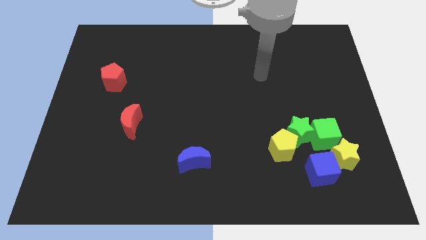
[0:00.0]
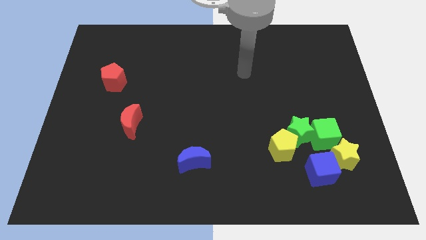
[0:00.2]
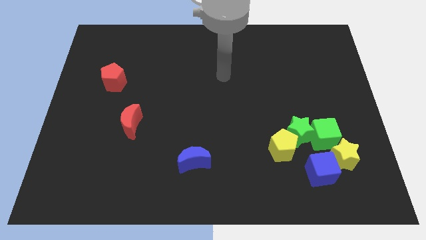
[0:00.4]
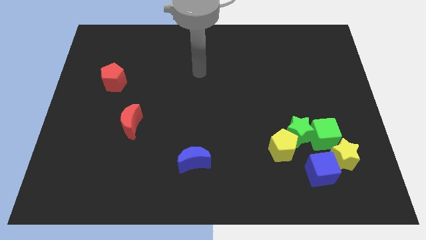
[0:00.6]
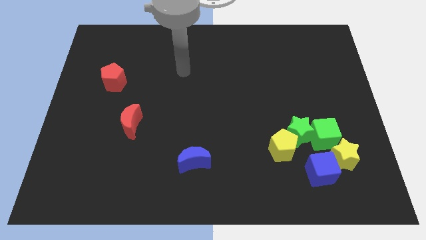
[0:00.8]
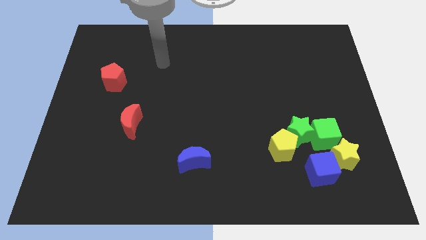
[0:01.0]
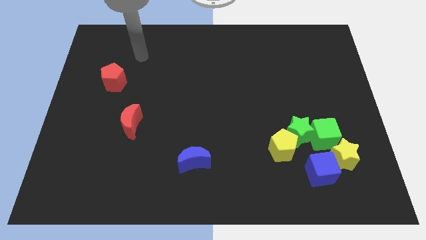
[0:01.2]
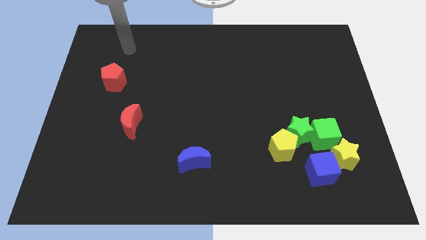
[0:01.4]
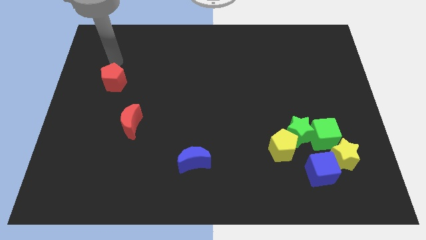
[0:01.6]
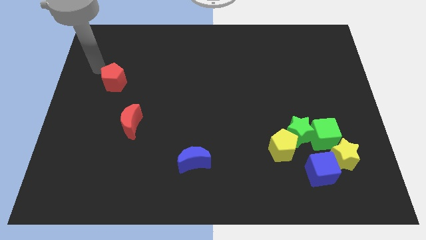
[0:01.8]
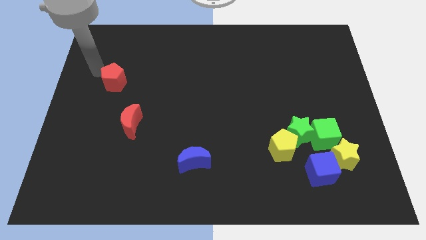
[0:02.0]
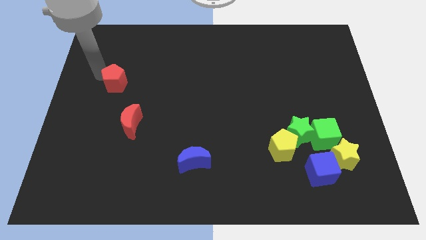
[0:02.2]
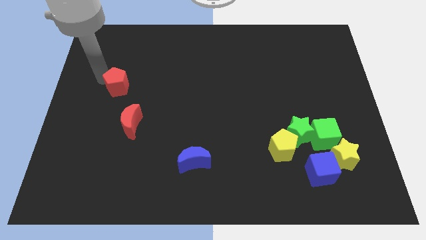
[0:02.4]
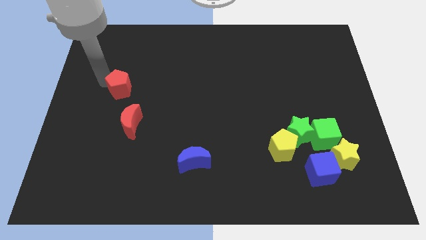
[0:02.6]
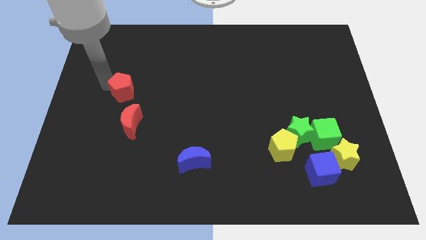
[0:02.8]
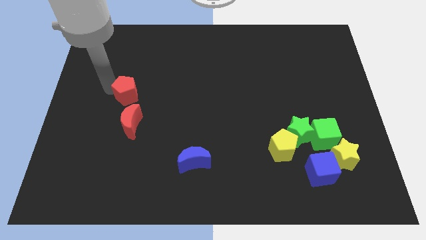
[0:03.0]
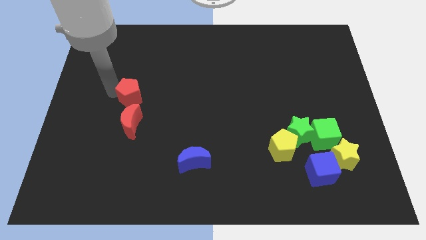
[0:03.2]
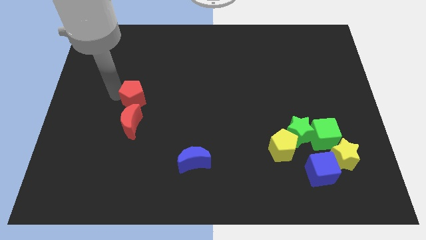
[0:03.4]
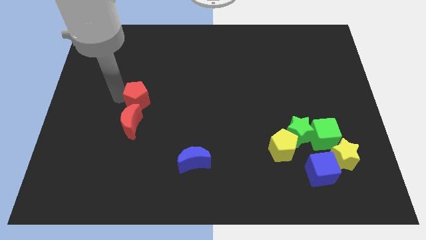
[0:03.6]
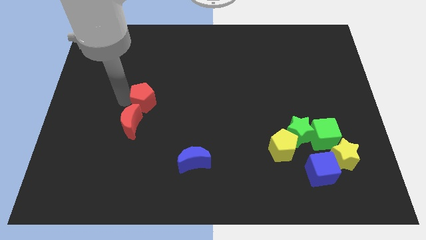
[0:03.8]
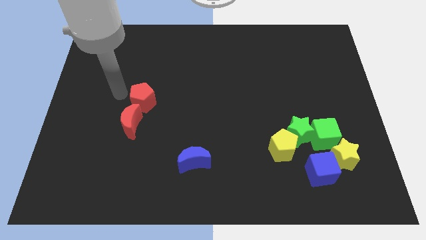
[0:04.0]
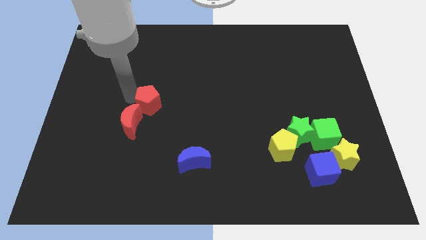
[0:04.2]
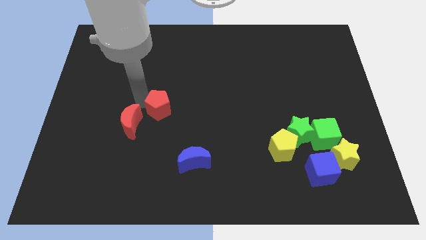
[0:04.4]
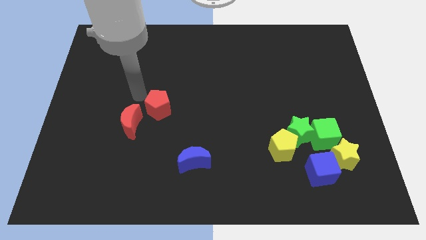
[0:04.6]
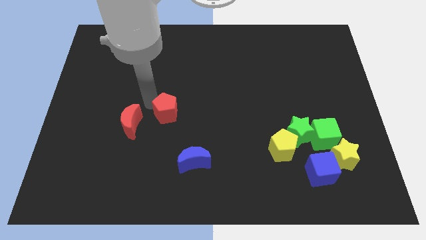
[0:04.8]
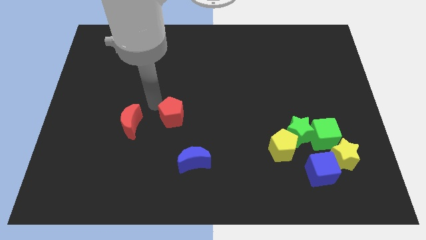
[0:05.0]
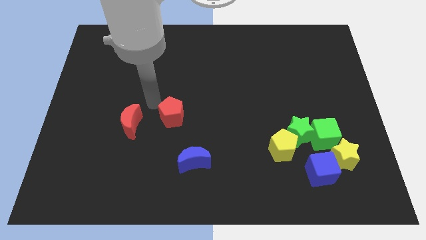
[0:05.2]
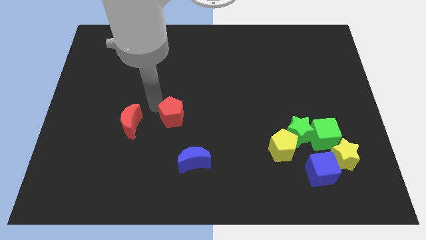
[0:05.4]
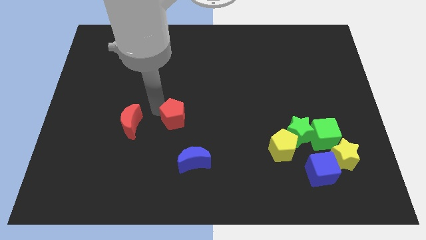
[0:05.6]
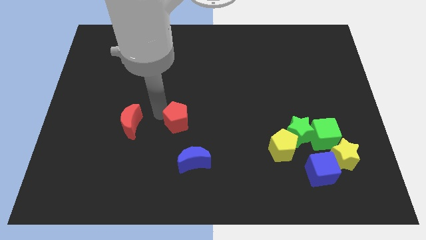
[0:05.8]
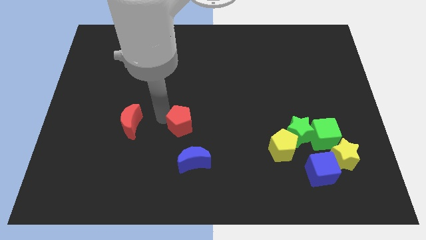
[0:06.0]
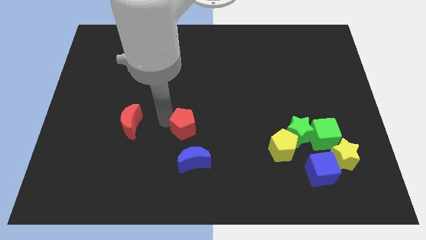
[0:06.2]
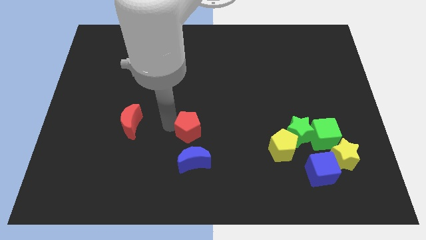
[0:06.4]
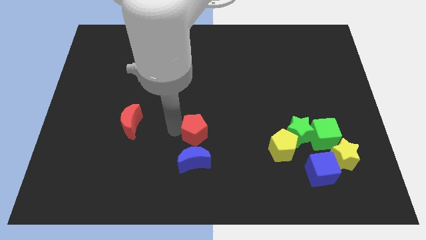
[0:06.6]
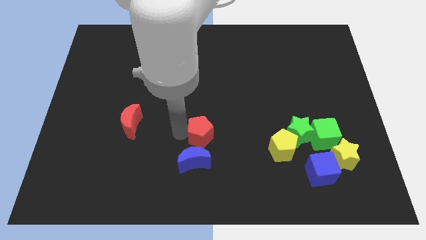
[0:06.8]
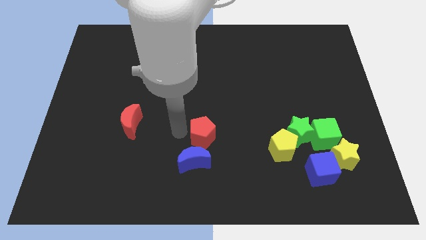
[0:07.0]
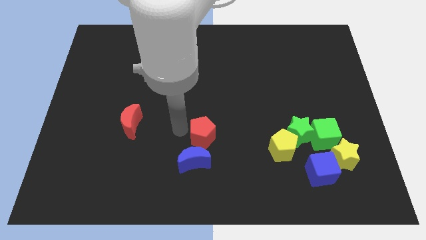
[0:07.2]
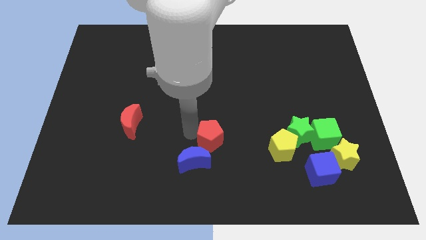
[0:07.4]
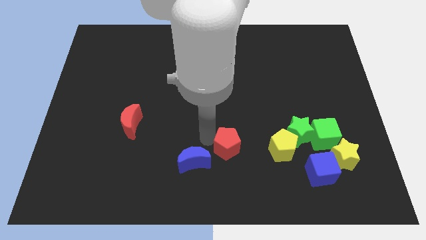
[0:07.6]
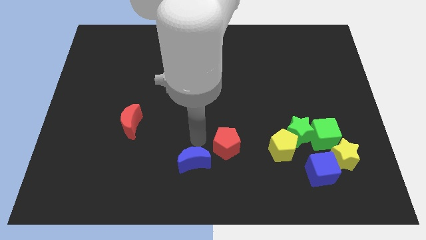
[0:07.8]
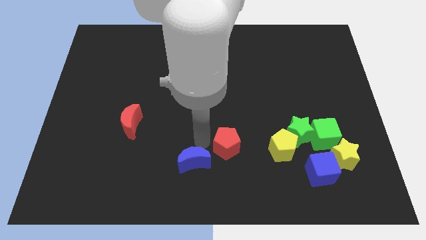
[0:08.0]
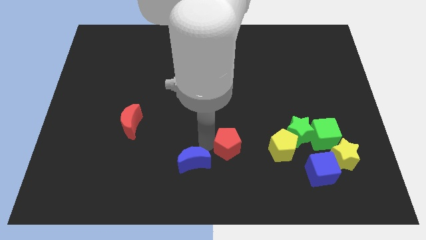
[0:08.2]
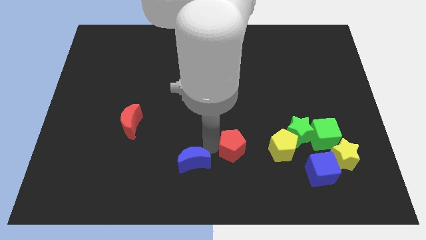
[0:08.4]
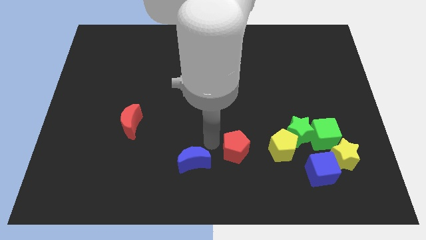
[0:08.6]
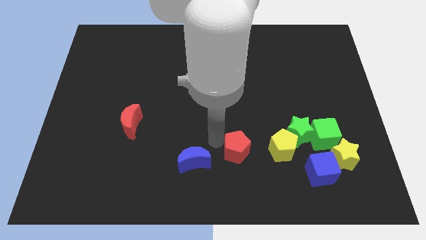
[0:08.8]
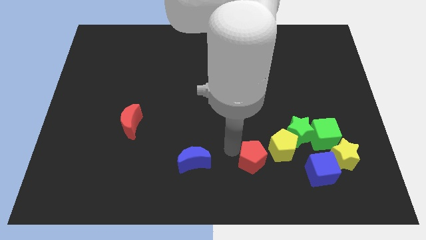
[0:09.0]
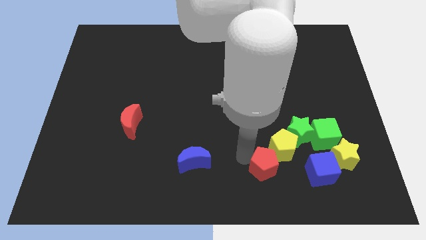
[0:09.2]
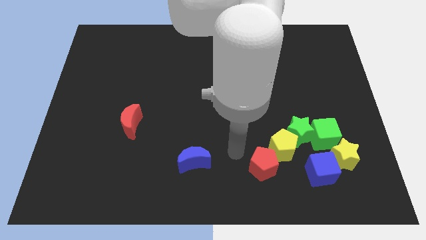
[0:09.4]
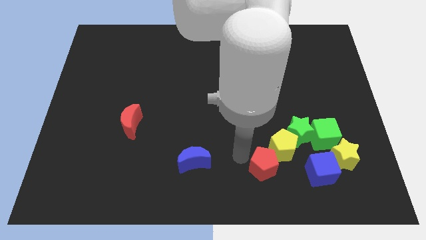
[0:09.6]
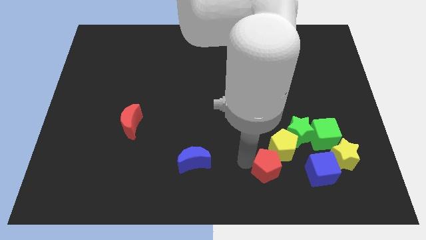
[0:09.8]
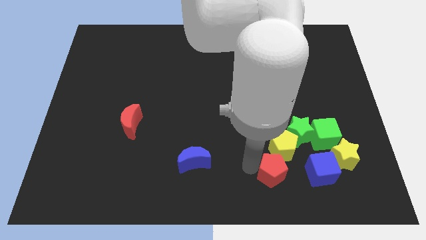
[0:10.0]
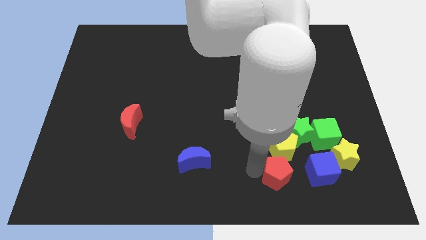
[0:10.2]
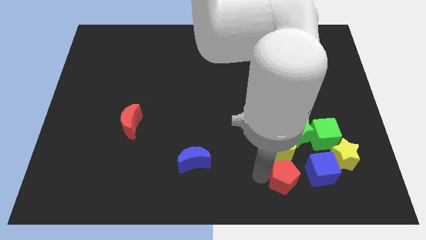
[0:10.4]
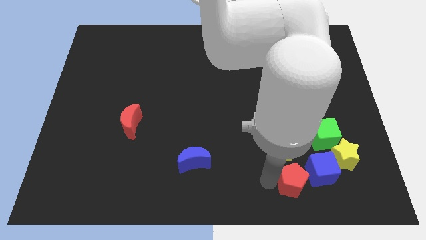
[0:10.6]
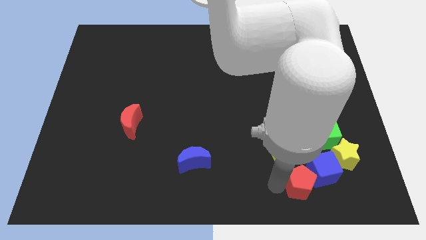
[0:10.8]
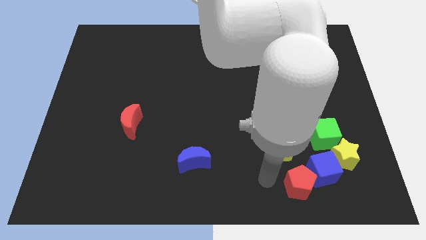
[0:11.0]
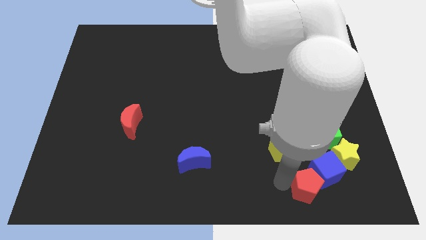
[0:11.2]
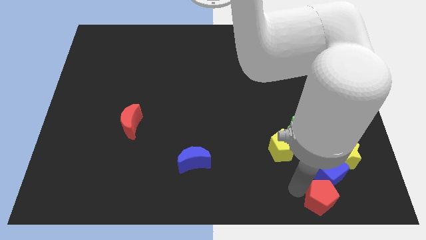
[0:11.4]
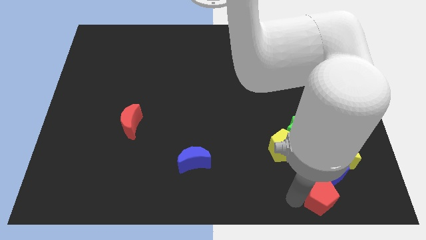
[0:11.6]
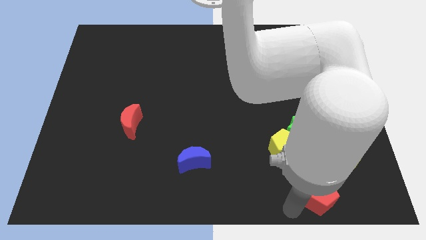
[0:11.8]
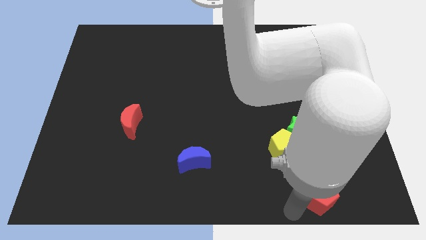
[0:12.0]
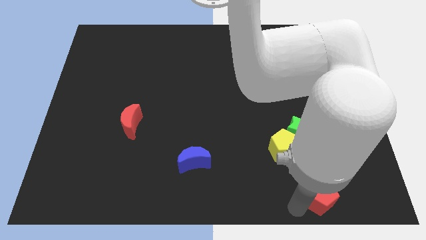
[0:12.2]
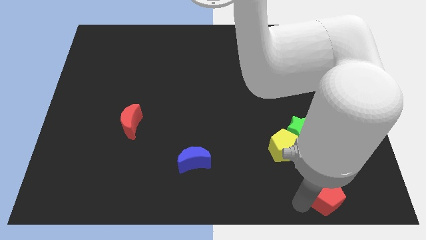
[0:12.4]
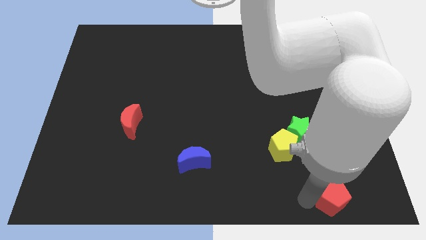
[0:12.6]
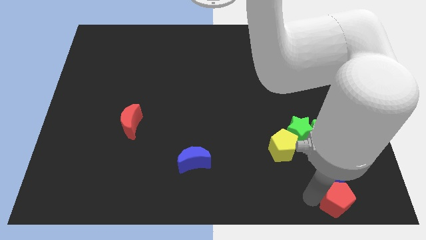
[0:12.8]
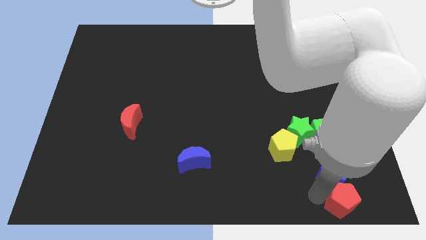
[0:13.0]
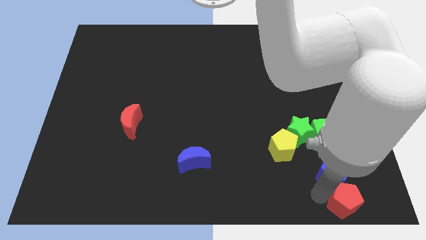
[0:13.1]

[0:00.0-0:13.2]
push the red pentagon to the lower right corner
